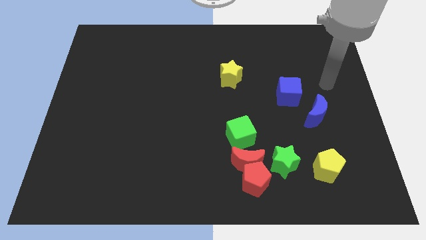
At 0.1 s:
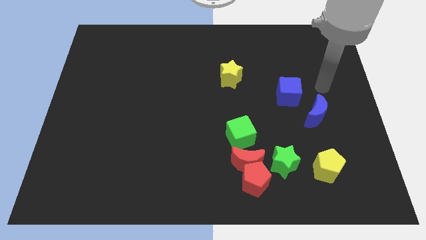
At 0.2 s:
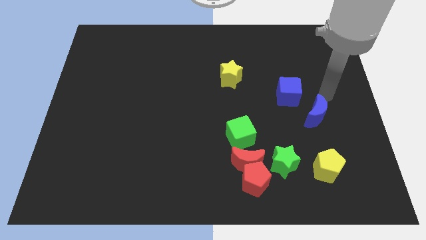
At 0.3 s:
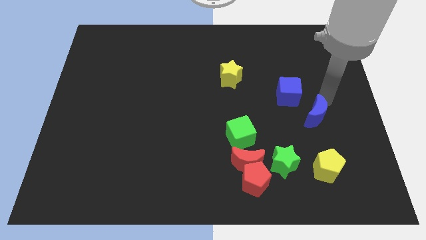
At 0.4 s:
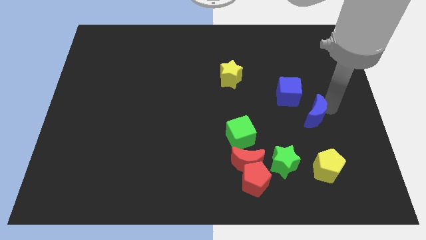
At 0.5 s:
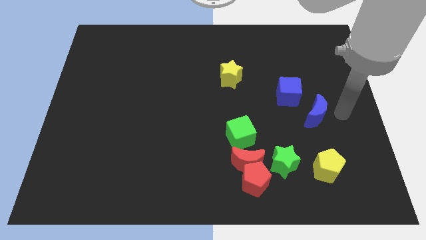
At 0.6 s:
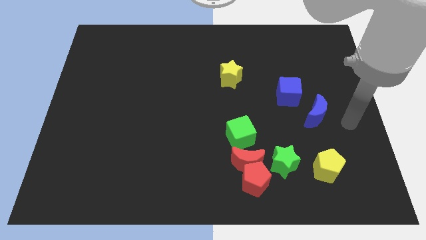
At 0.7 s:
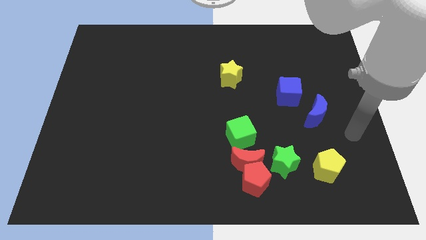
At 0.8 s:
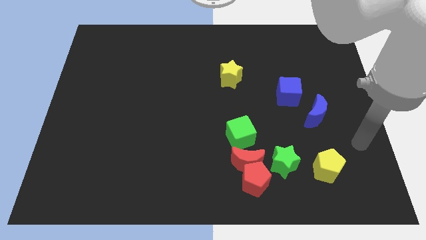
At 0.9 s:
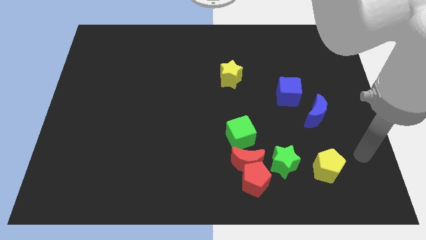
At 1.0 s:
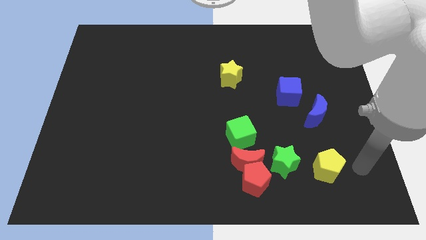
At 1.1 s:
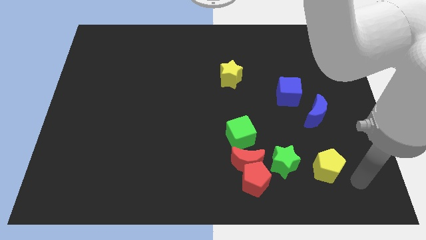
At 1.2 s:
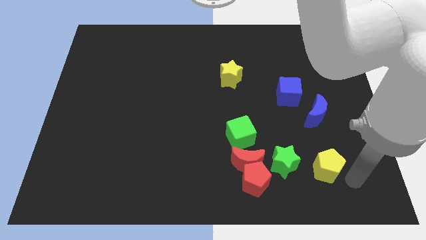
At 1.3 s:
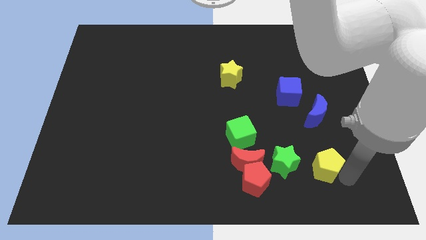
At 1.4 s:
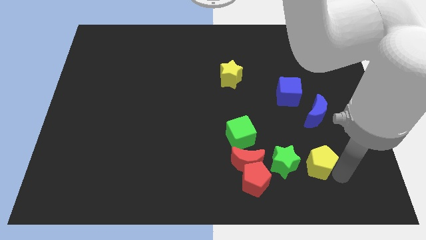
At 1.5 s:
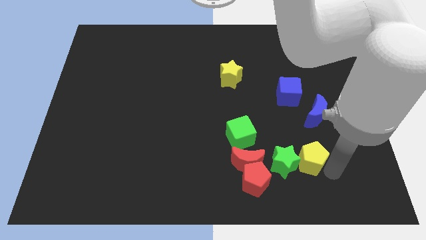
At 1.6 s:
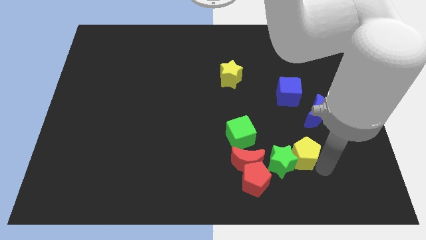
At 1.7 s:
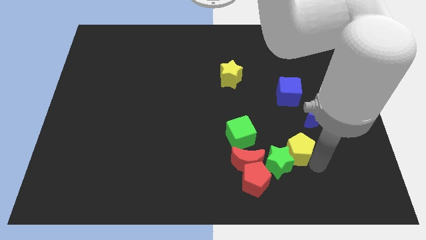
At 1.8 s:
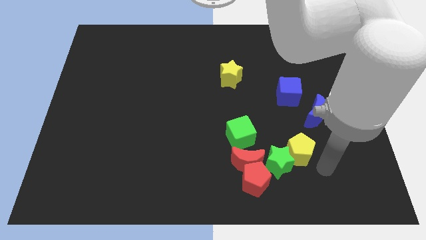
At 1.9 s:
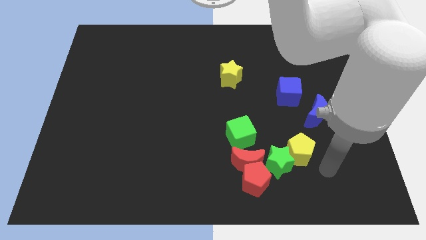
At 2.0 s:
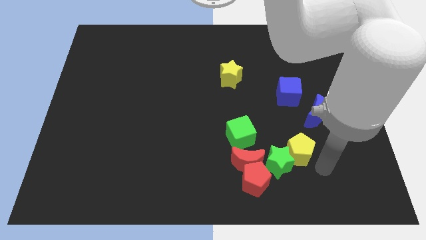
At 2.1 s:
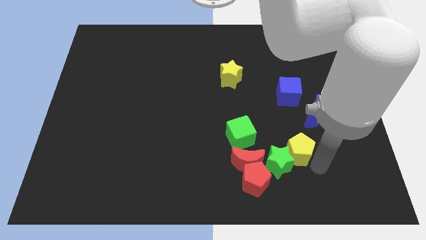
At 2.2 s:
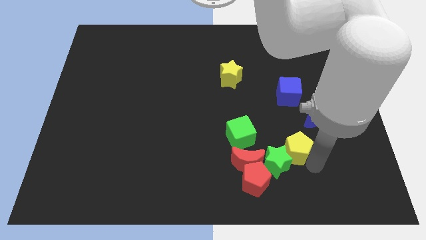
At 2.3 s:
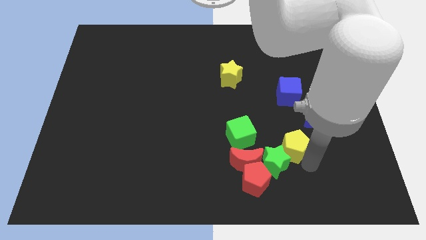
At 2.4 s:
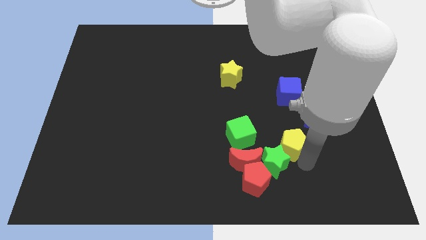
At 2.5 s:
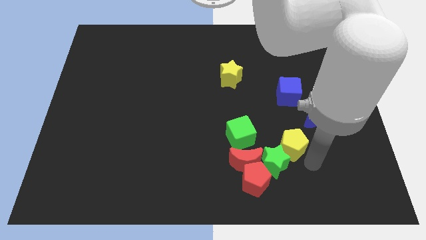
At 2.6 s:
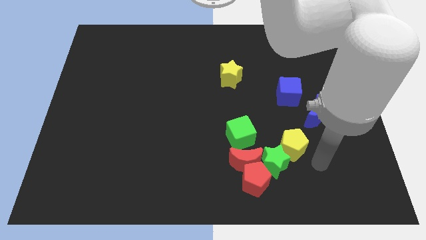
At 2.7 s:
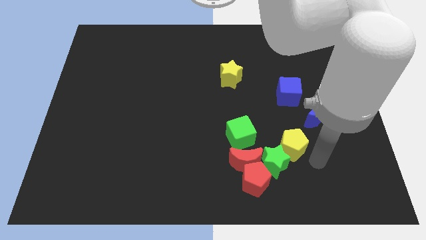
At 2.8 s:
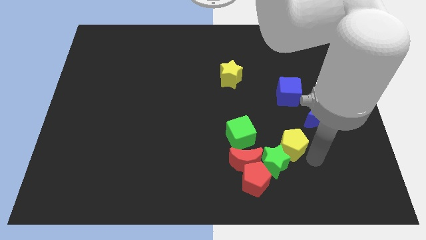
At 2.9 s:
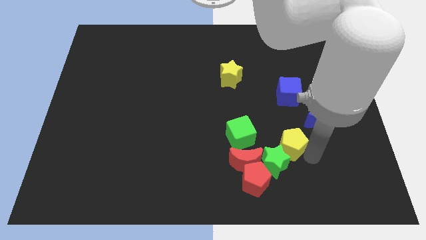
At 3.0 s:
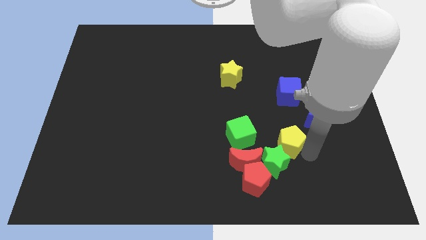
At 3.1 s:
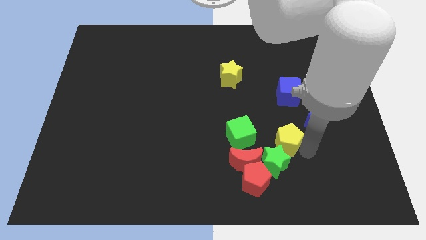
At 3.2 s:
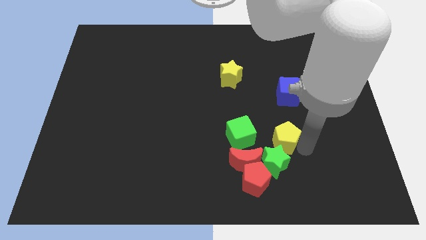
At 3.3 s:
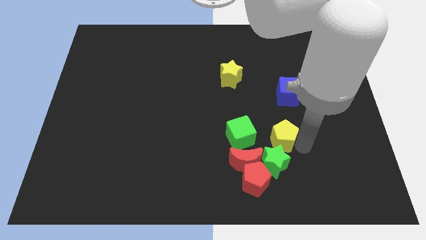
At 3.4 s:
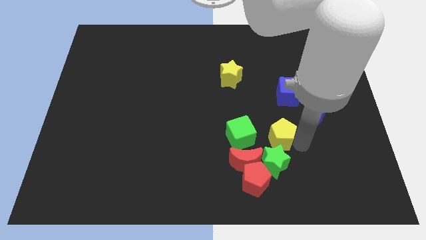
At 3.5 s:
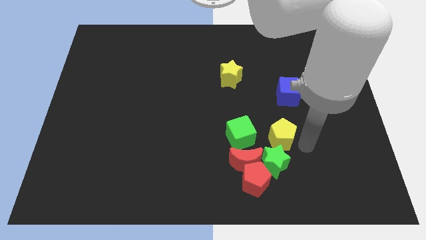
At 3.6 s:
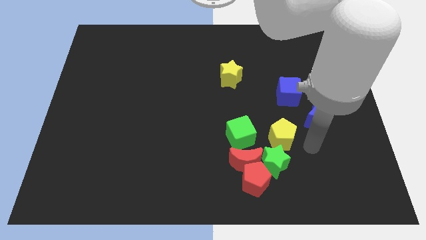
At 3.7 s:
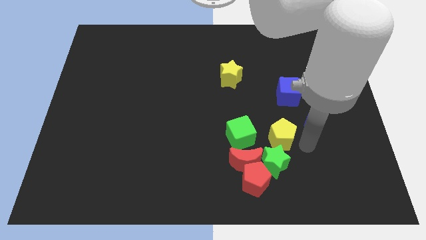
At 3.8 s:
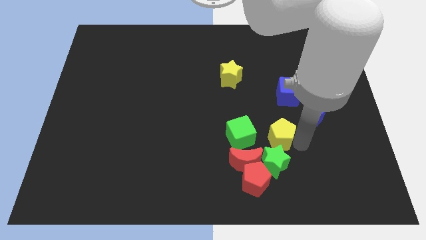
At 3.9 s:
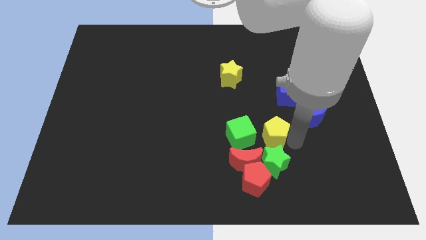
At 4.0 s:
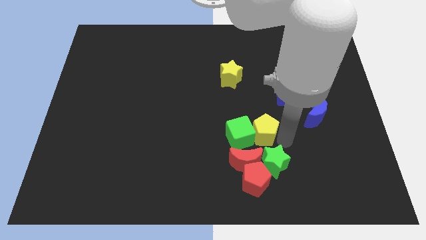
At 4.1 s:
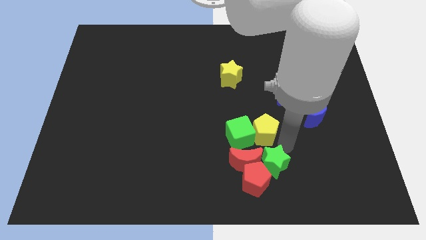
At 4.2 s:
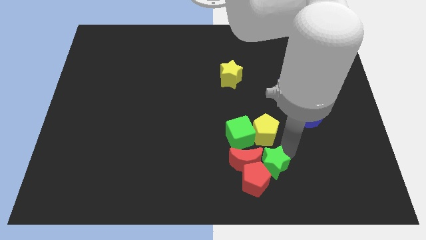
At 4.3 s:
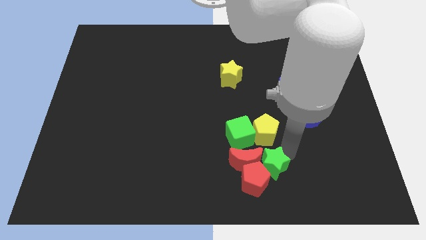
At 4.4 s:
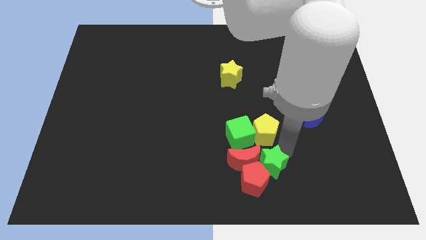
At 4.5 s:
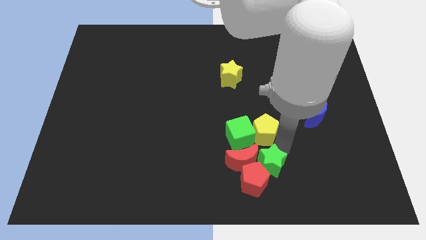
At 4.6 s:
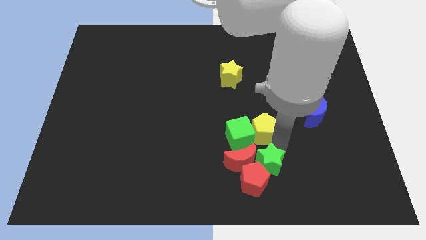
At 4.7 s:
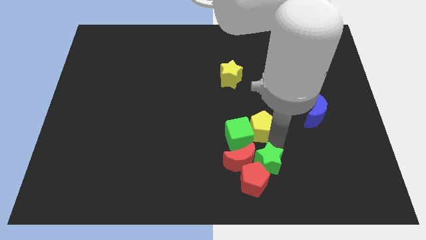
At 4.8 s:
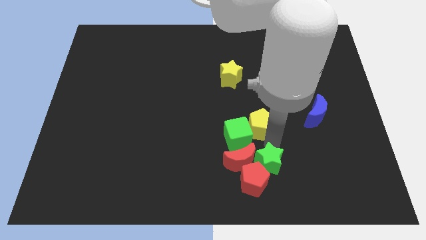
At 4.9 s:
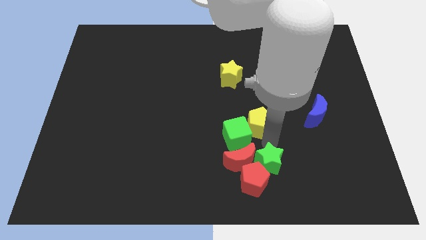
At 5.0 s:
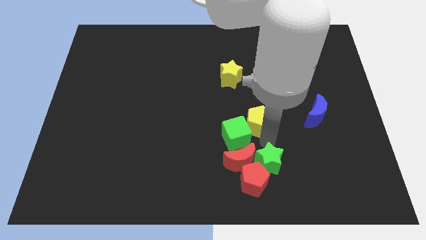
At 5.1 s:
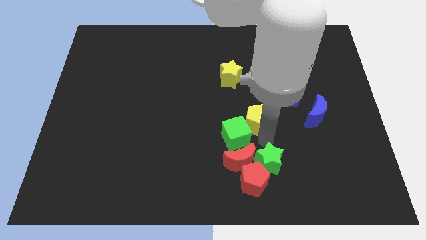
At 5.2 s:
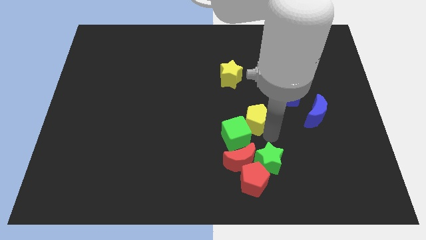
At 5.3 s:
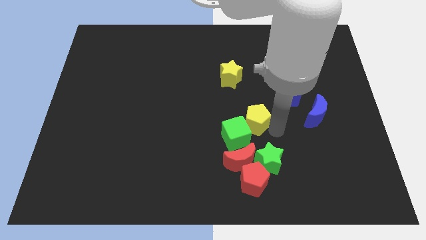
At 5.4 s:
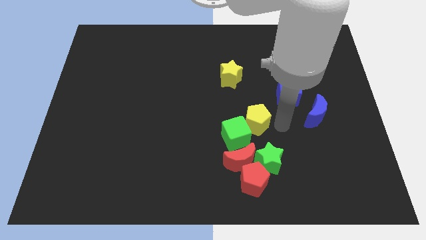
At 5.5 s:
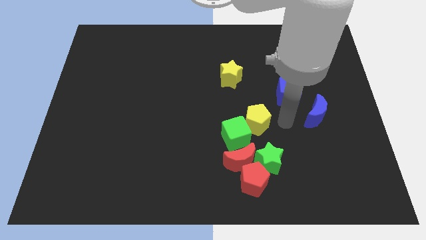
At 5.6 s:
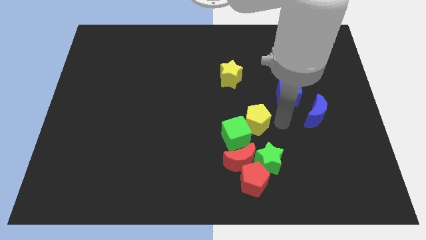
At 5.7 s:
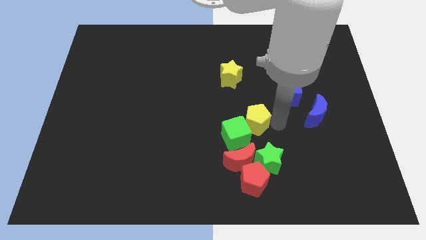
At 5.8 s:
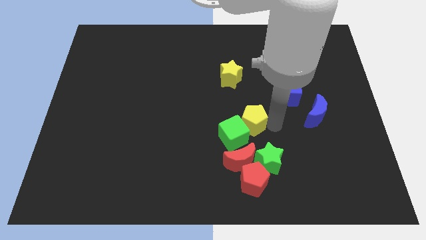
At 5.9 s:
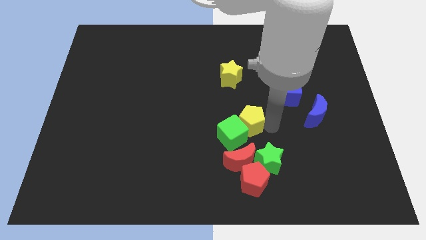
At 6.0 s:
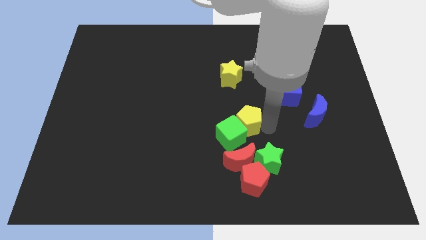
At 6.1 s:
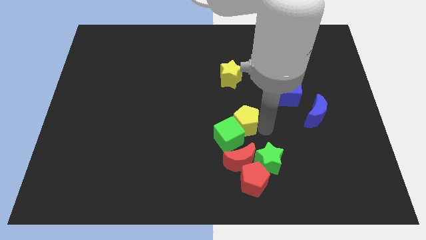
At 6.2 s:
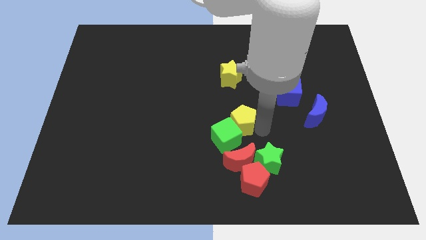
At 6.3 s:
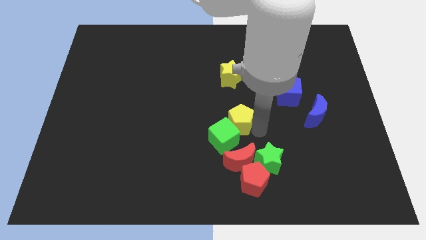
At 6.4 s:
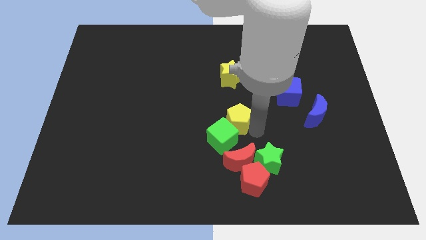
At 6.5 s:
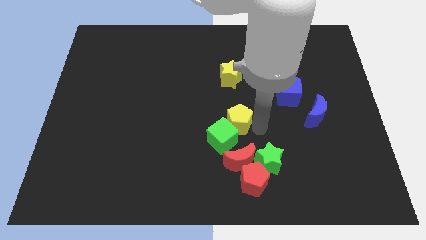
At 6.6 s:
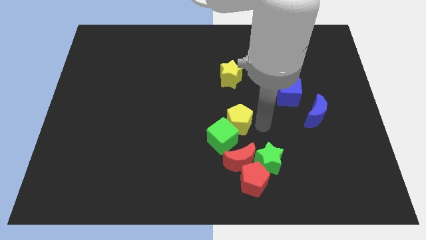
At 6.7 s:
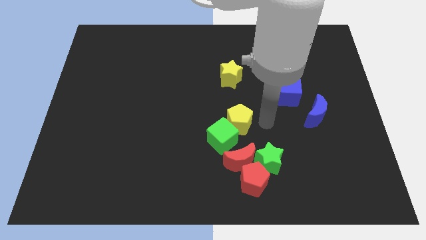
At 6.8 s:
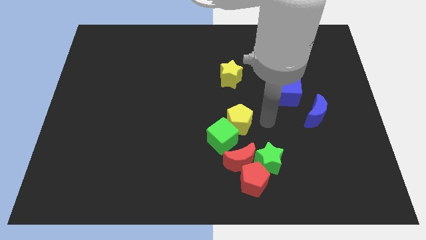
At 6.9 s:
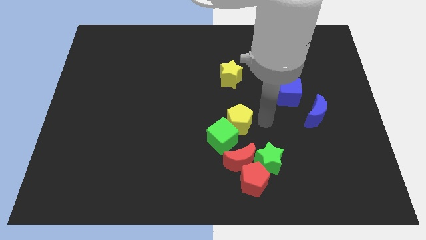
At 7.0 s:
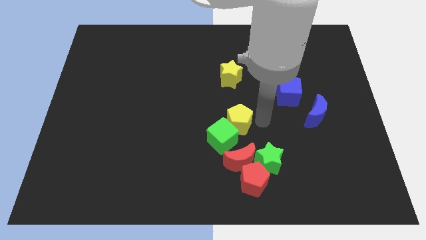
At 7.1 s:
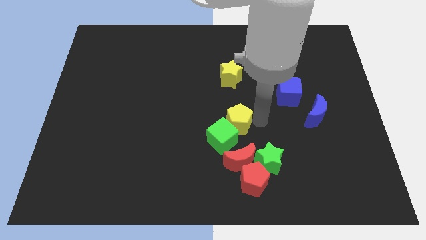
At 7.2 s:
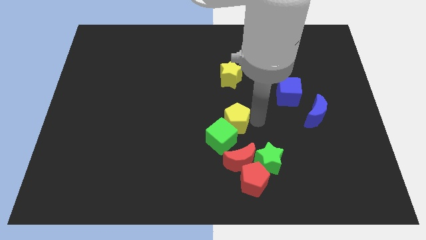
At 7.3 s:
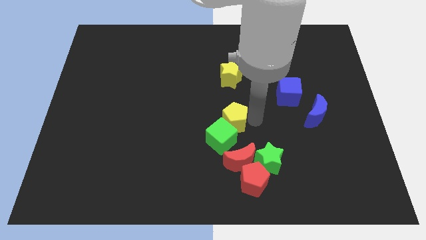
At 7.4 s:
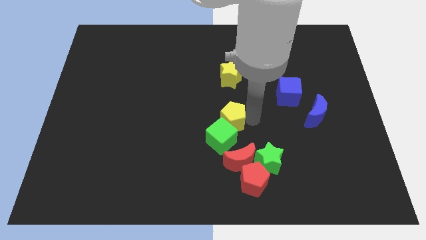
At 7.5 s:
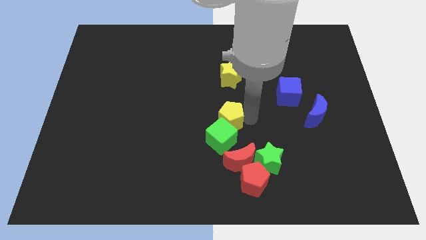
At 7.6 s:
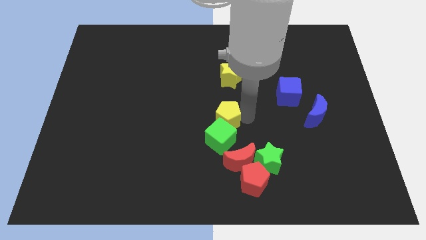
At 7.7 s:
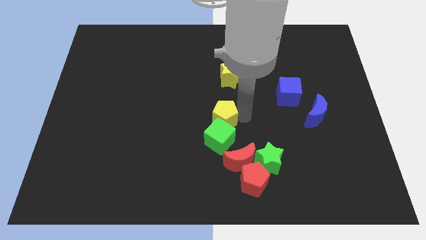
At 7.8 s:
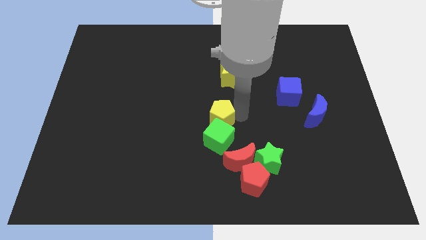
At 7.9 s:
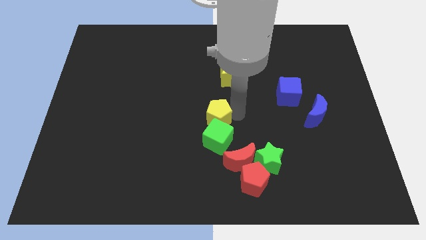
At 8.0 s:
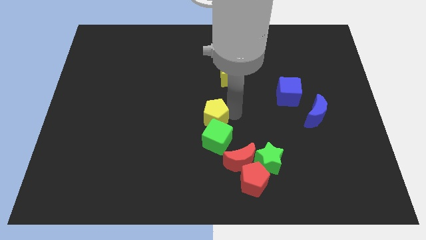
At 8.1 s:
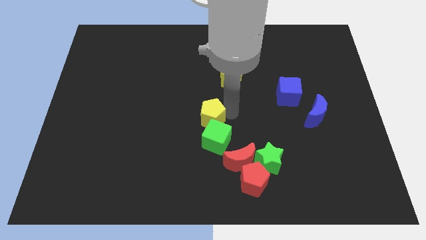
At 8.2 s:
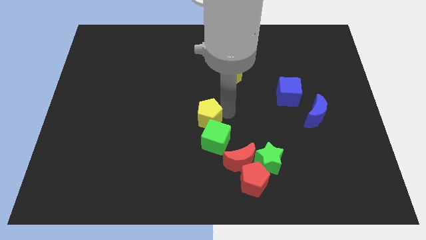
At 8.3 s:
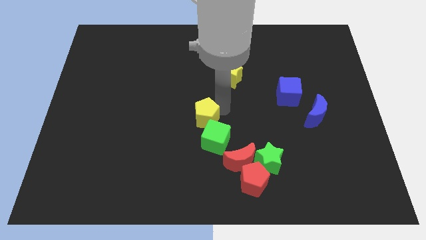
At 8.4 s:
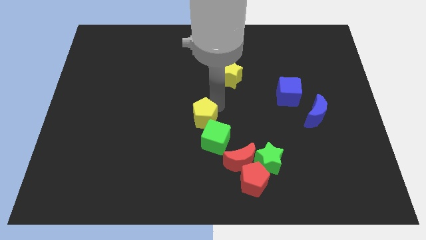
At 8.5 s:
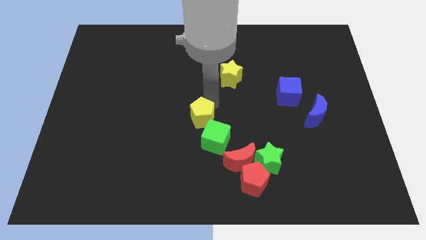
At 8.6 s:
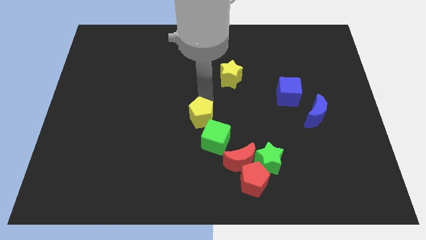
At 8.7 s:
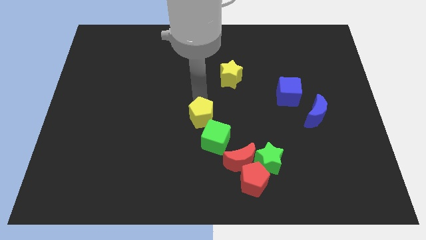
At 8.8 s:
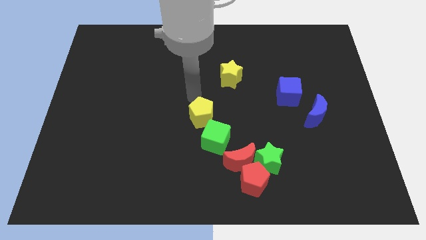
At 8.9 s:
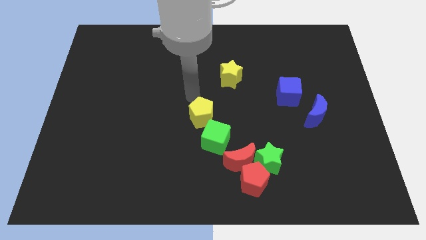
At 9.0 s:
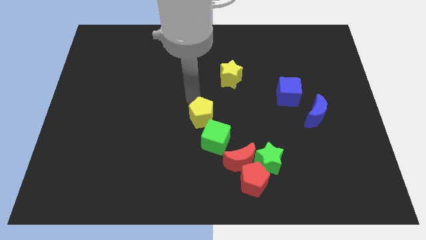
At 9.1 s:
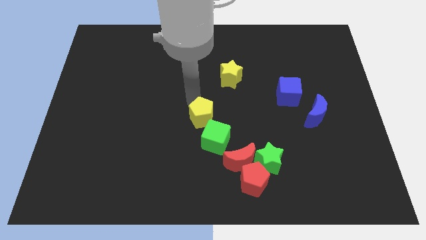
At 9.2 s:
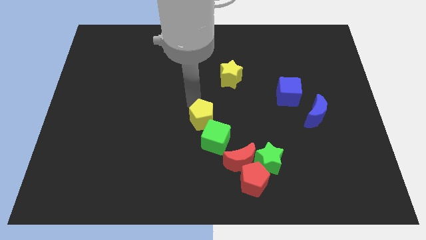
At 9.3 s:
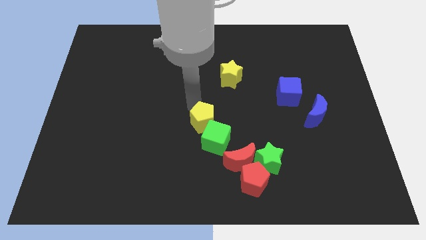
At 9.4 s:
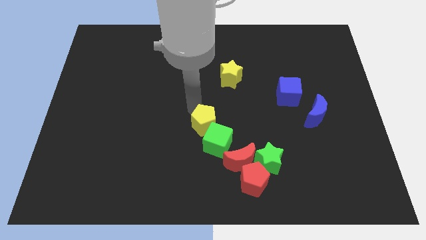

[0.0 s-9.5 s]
push the yellow pentagon to the top left side of the red moon
